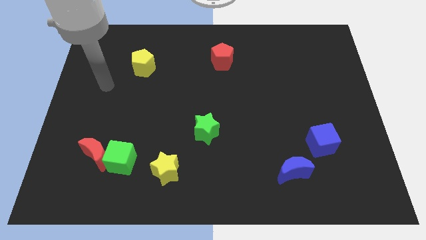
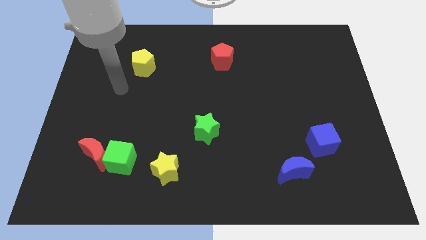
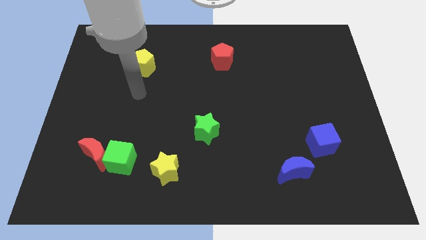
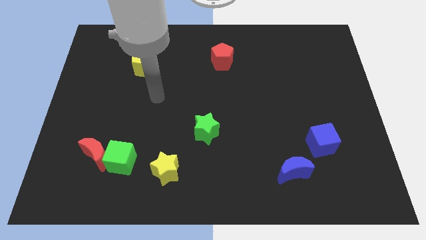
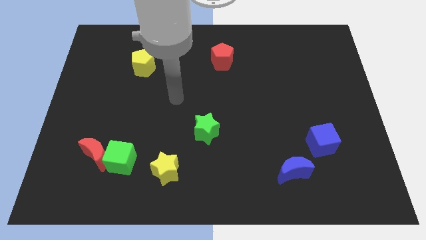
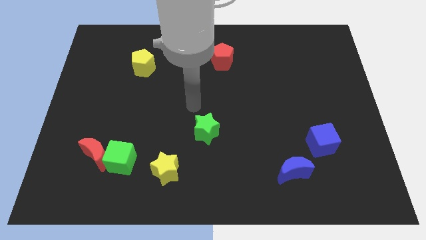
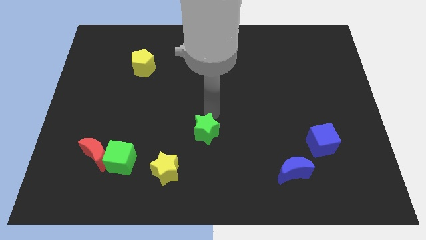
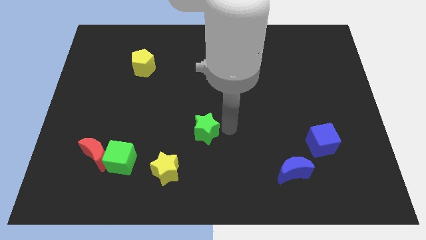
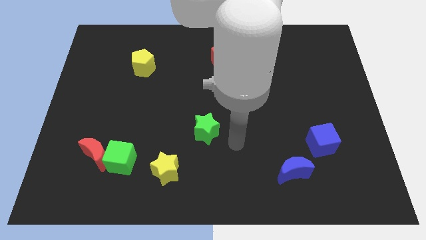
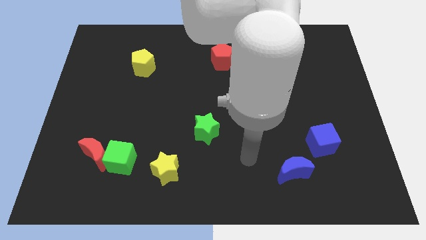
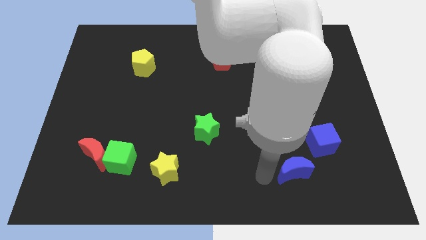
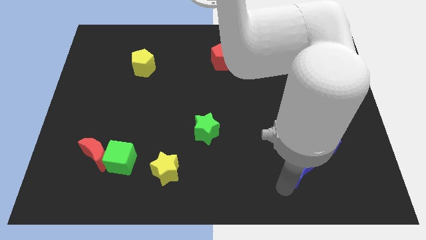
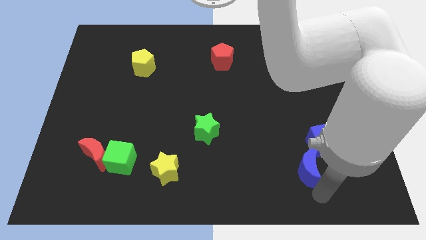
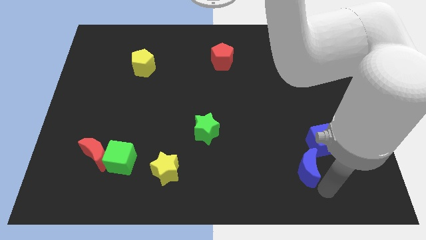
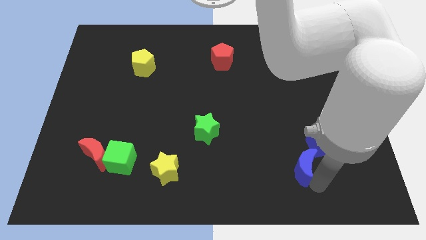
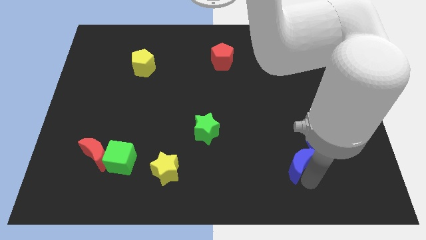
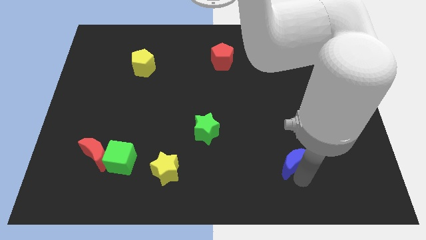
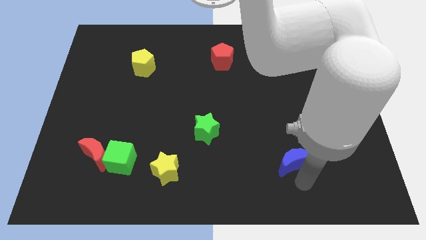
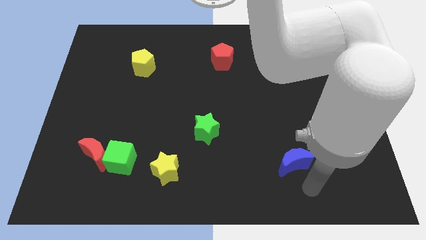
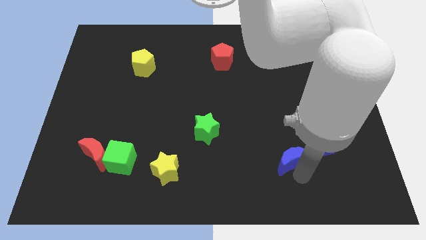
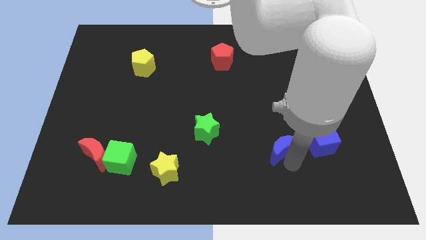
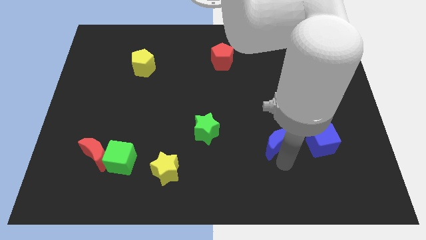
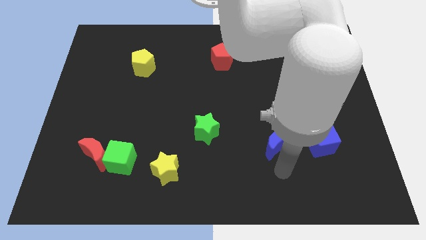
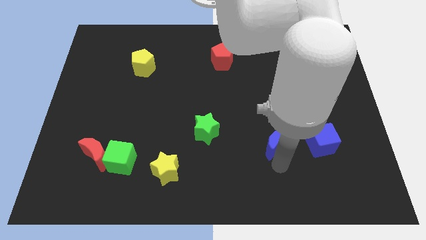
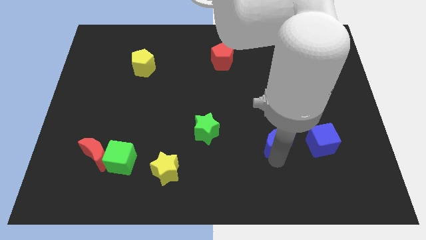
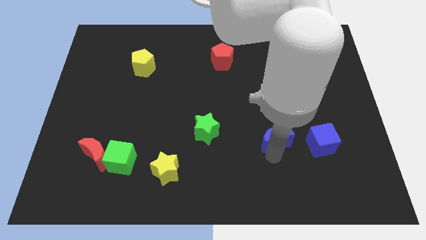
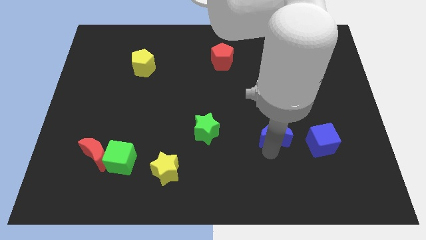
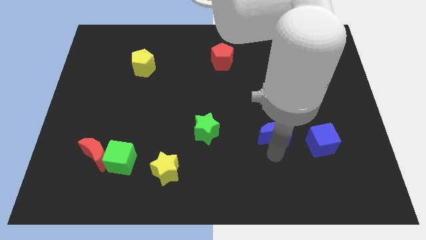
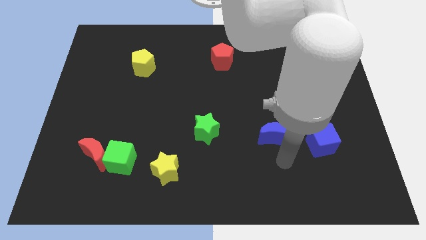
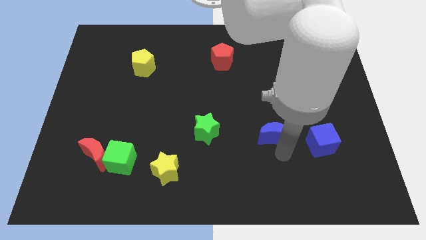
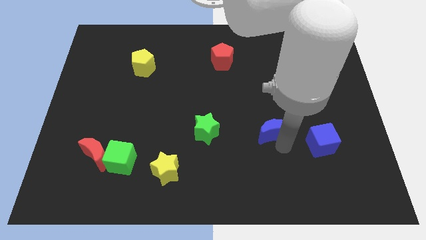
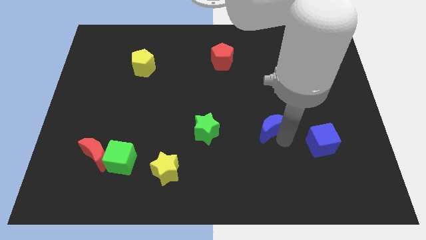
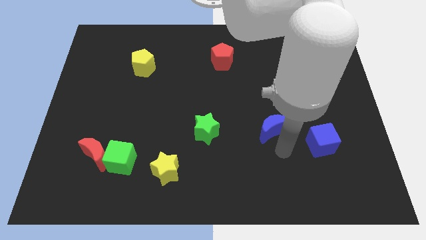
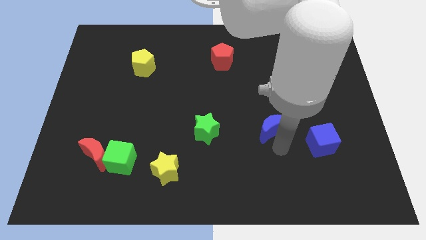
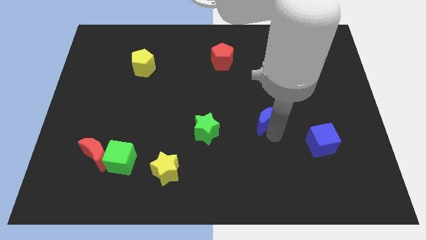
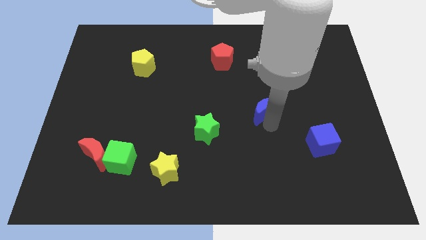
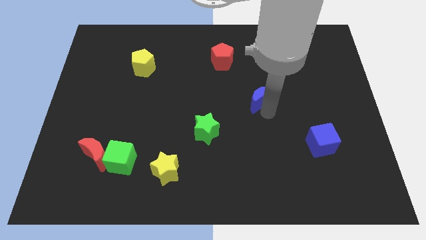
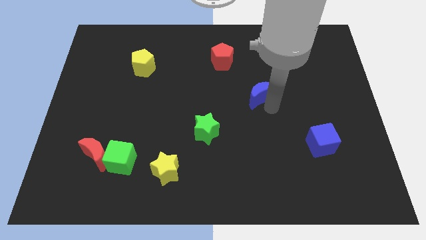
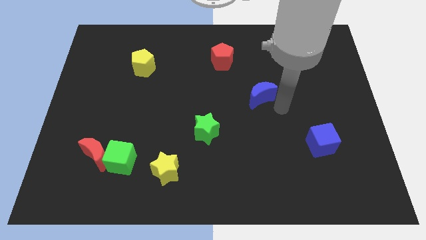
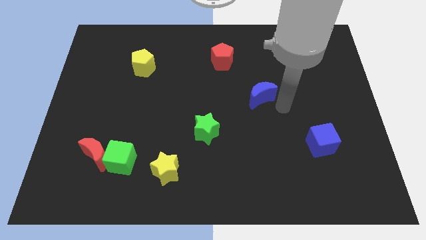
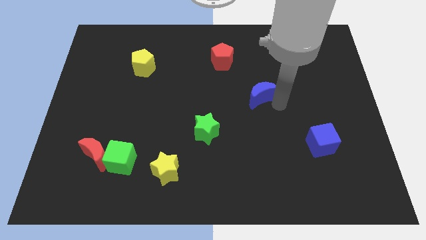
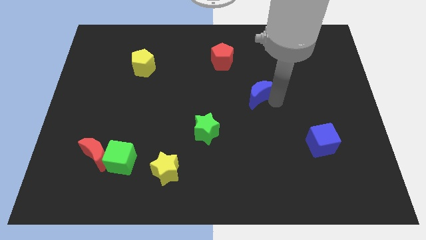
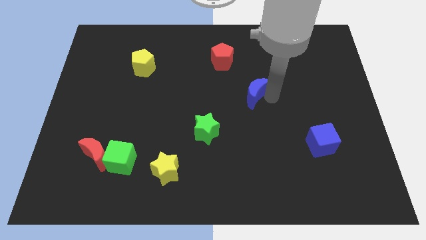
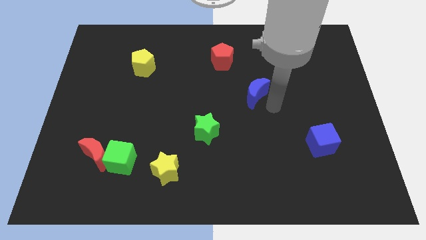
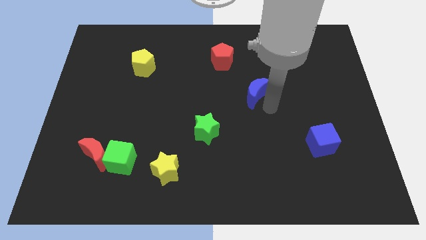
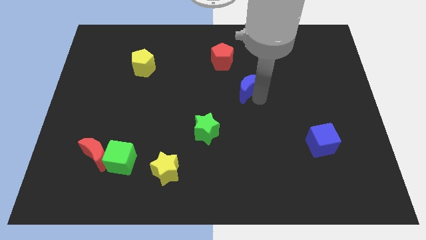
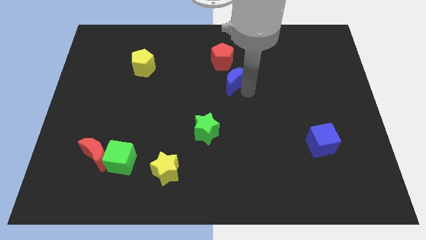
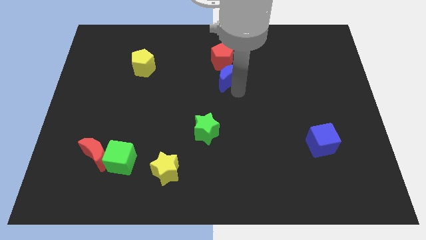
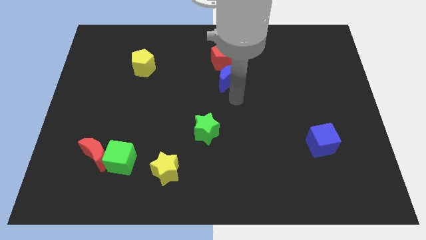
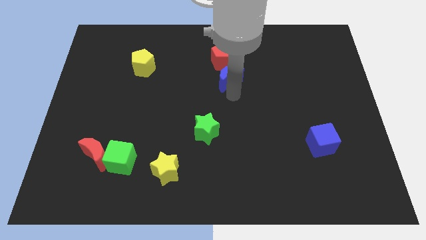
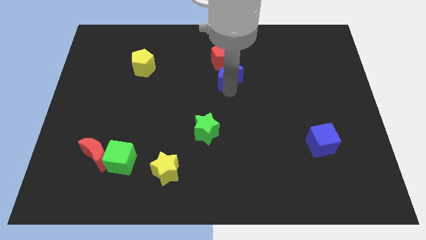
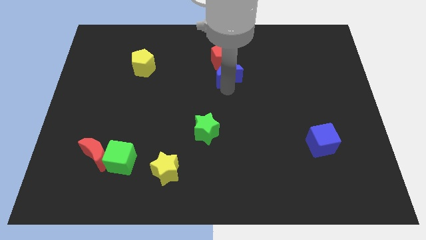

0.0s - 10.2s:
push the blue moon to the red pentagon

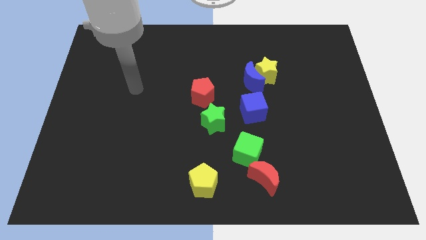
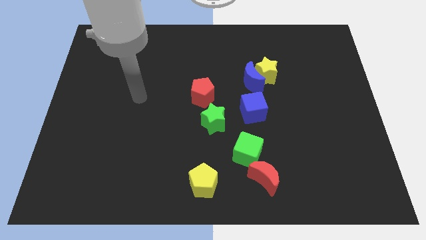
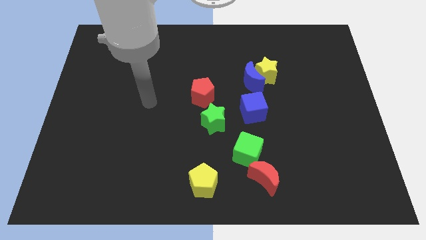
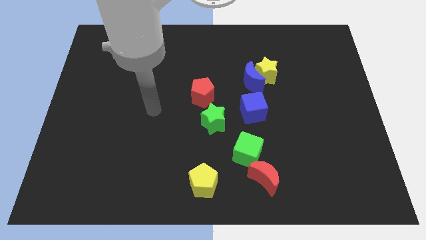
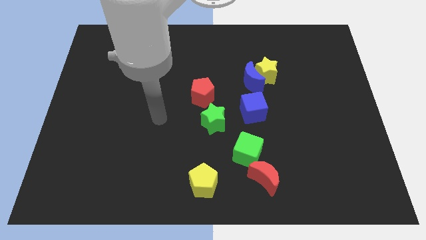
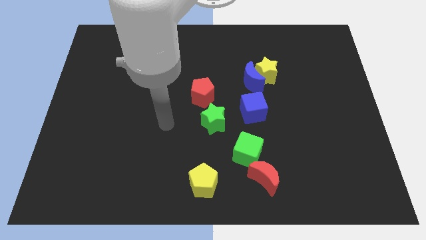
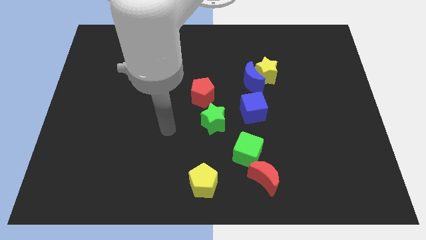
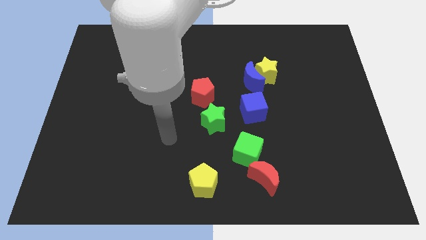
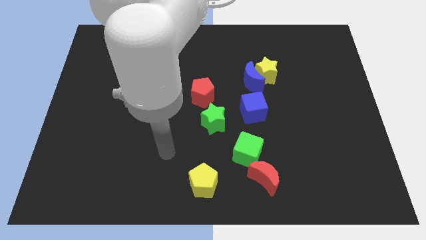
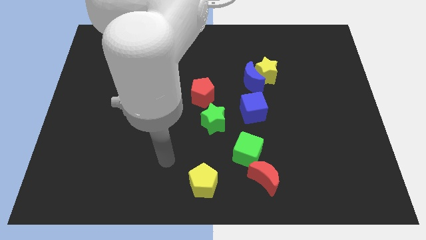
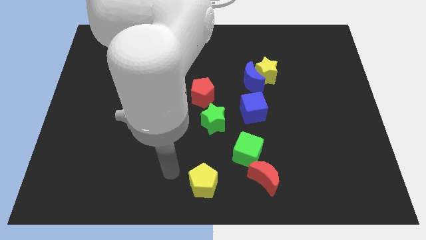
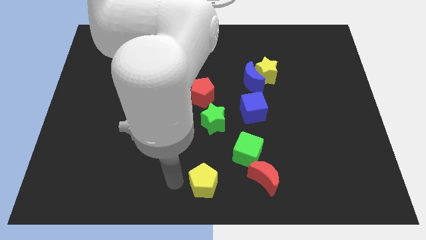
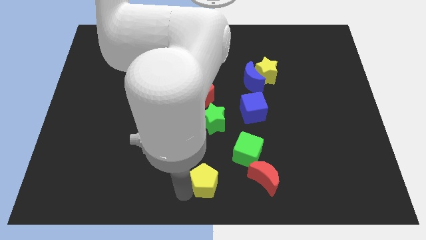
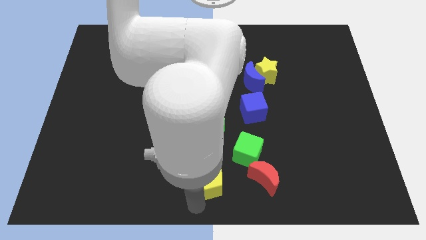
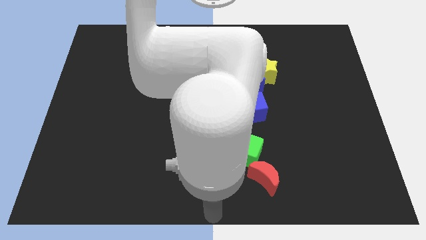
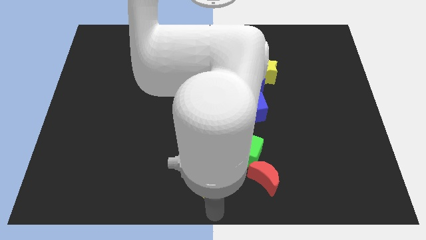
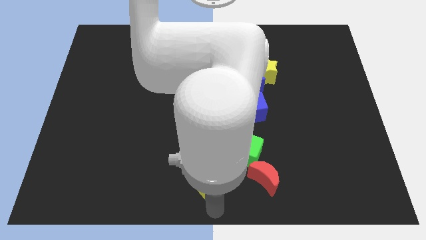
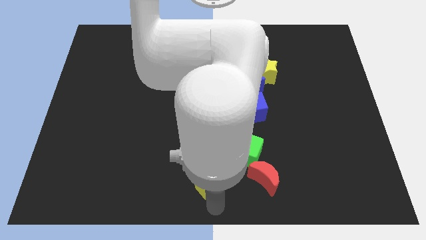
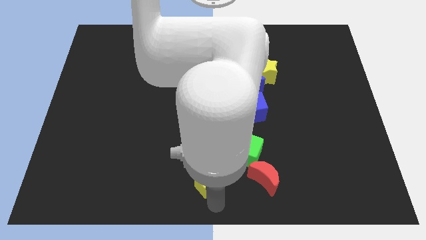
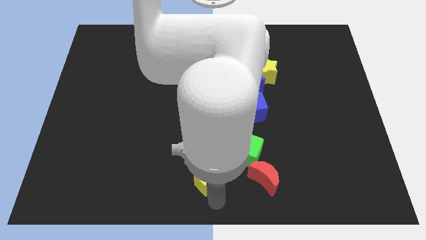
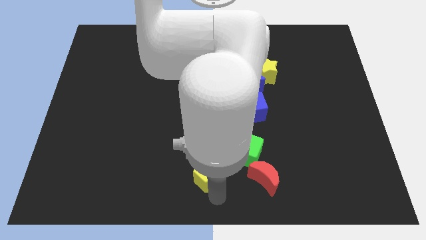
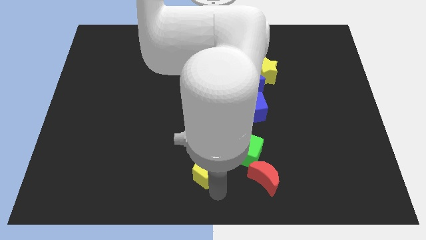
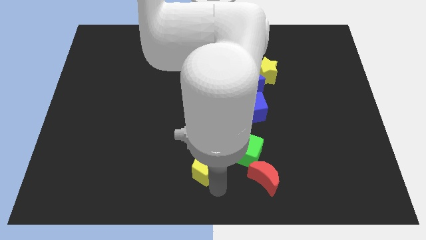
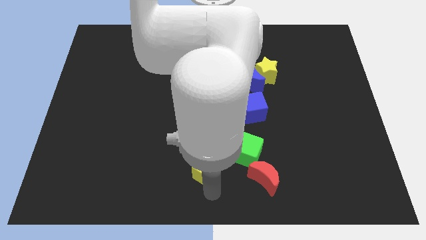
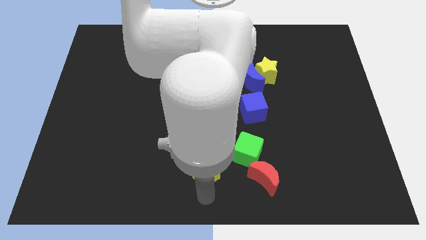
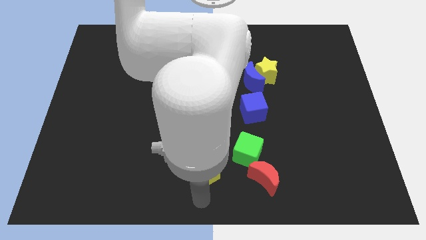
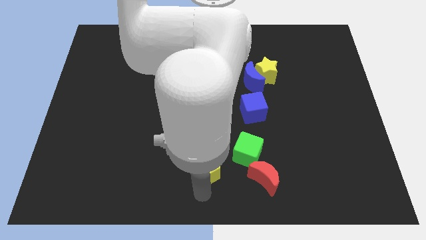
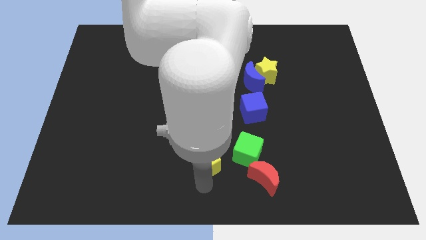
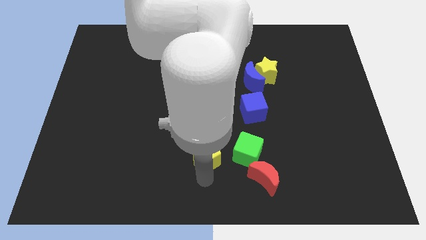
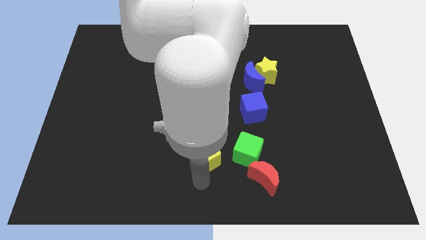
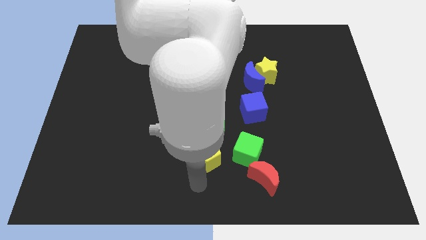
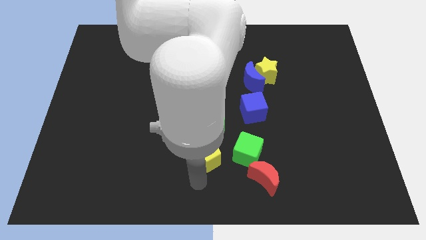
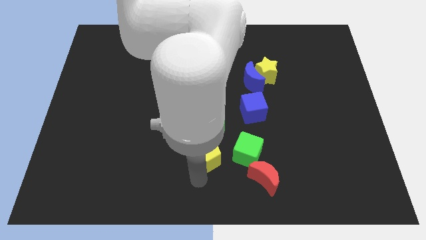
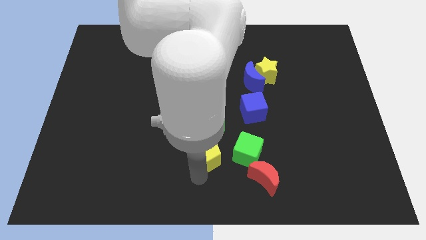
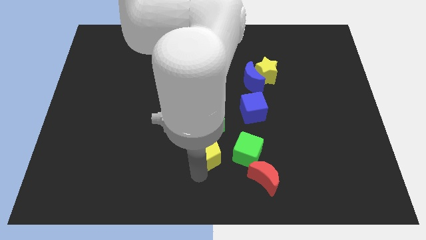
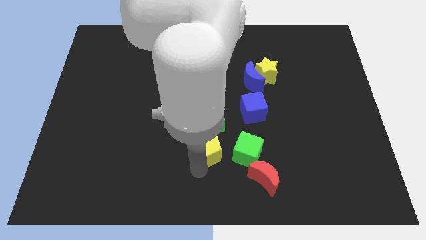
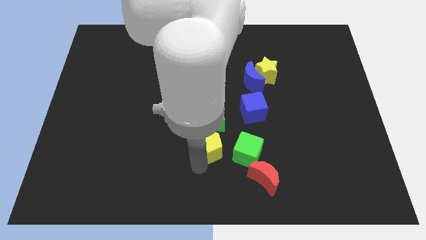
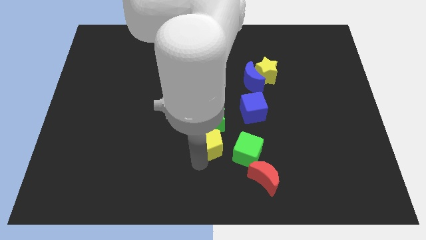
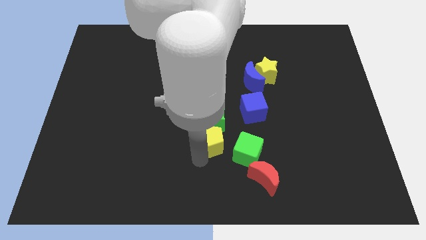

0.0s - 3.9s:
slide the yellow pentagon close to the green star
